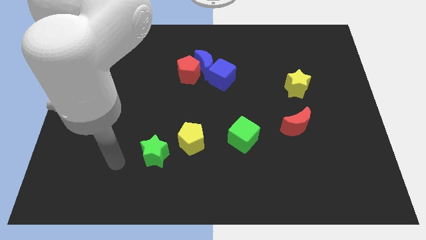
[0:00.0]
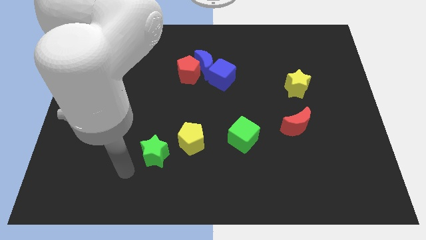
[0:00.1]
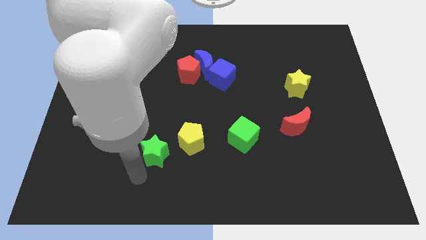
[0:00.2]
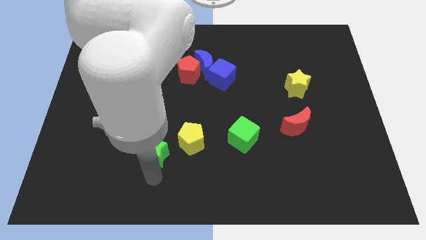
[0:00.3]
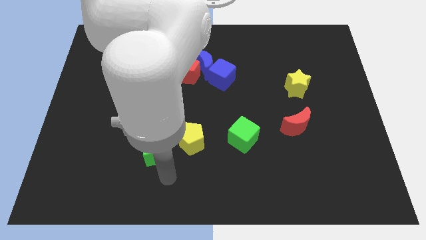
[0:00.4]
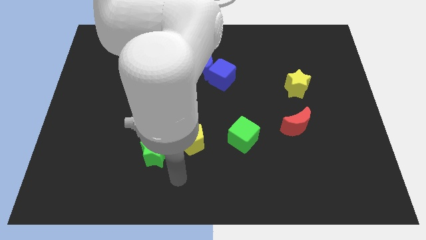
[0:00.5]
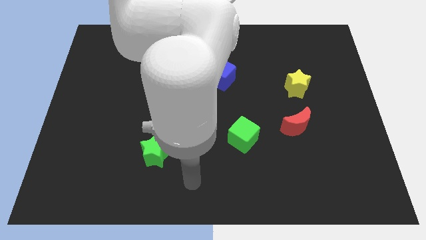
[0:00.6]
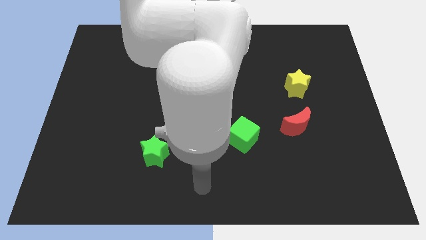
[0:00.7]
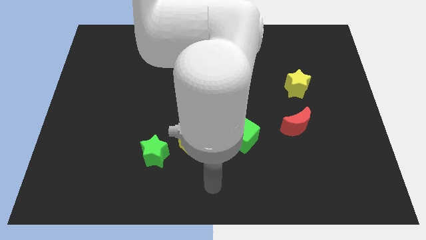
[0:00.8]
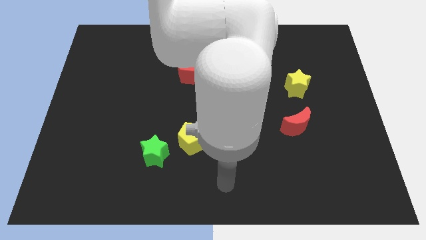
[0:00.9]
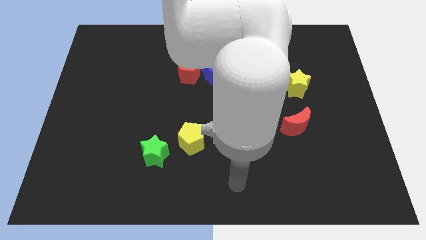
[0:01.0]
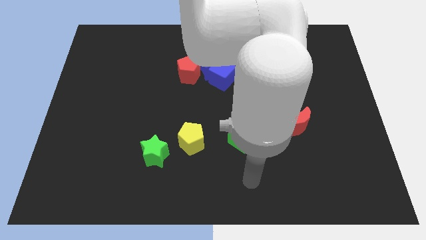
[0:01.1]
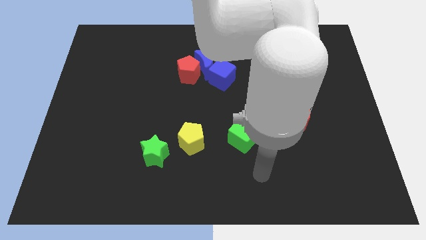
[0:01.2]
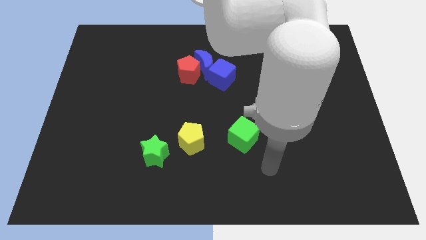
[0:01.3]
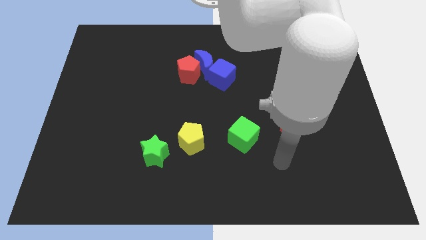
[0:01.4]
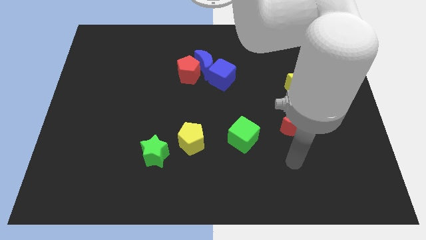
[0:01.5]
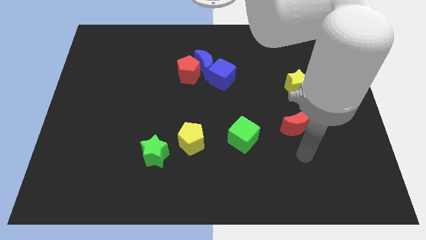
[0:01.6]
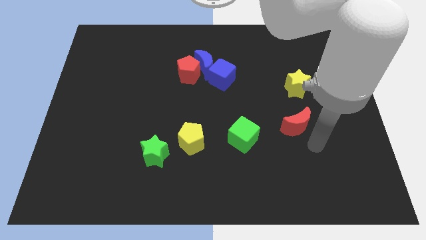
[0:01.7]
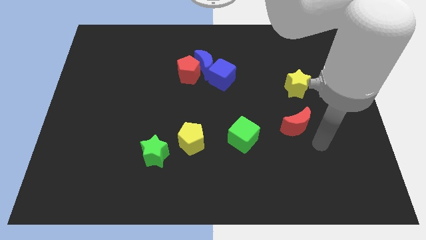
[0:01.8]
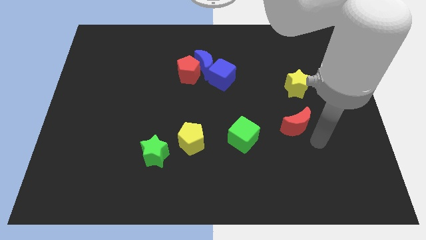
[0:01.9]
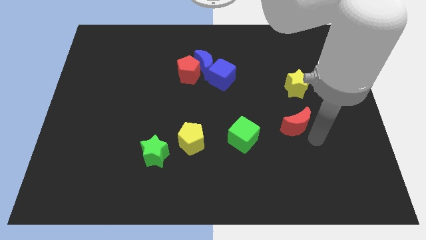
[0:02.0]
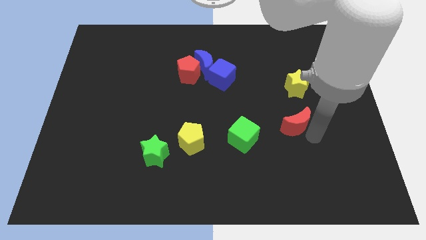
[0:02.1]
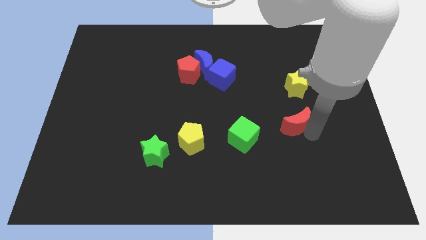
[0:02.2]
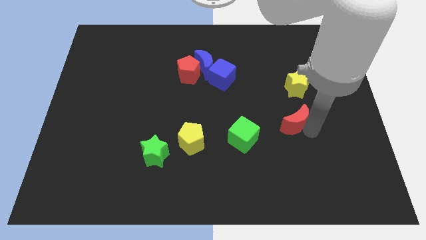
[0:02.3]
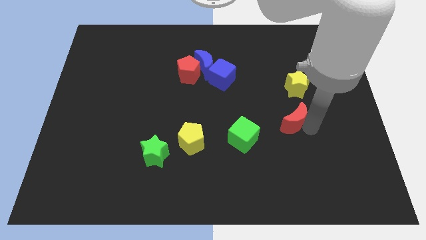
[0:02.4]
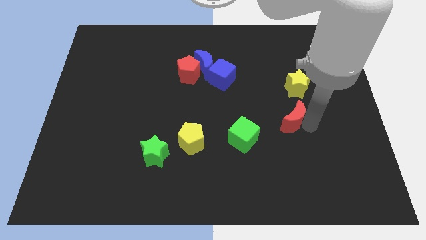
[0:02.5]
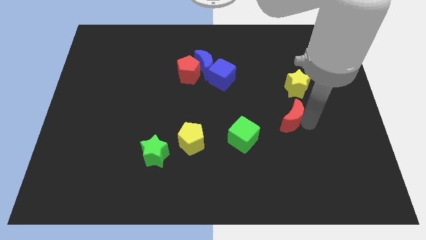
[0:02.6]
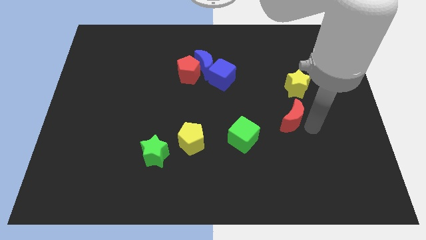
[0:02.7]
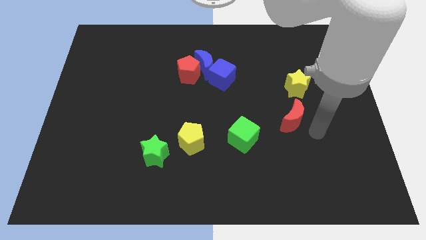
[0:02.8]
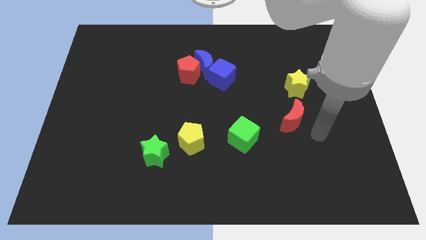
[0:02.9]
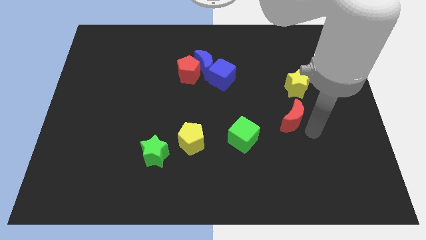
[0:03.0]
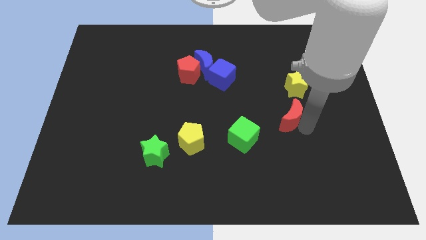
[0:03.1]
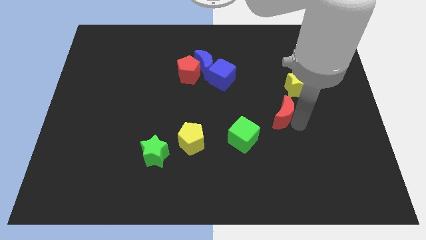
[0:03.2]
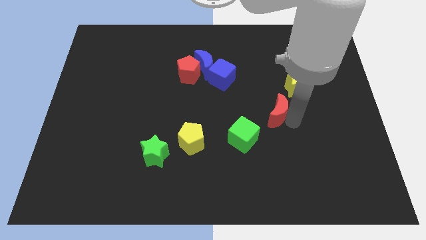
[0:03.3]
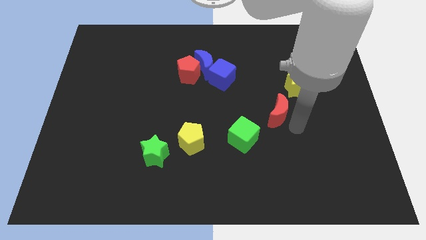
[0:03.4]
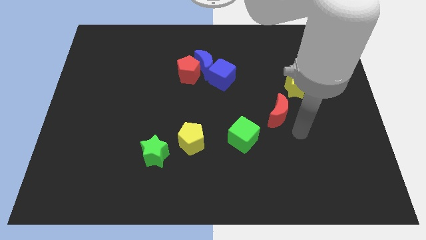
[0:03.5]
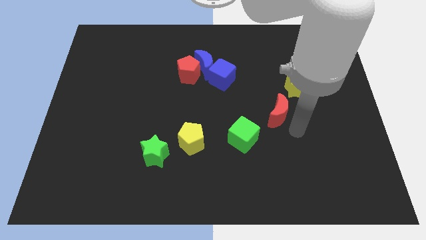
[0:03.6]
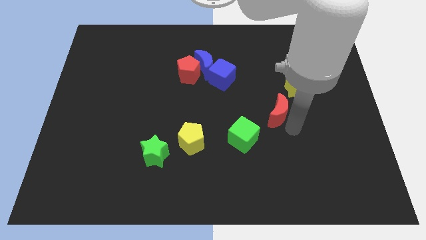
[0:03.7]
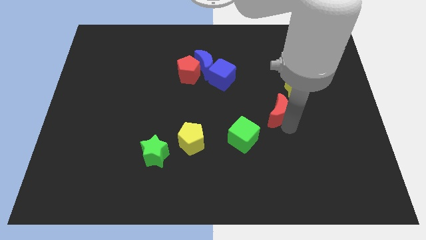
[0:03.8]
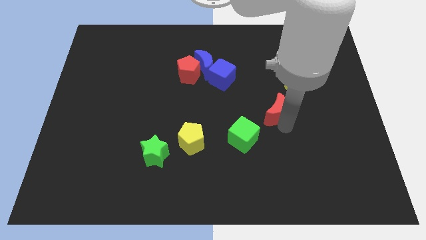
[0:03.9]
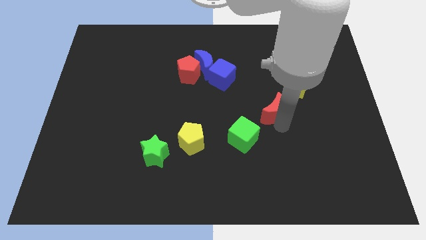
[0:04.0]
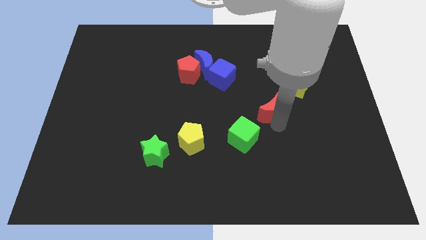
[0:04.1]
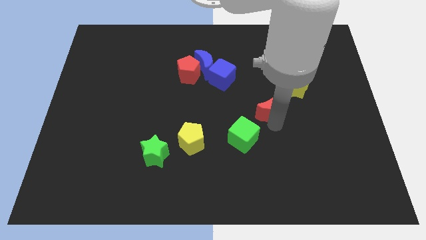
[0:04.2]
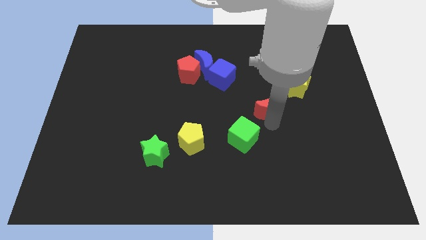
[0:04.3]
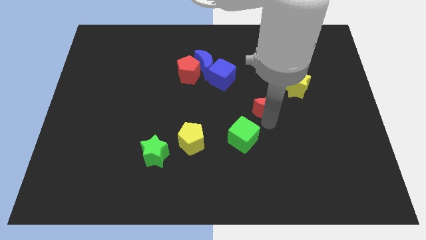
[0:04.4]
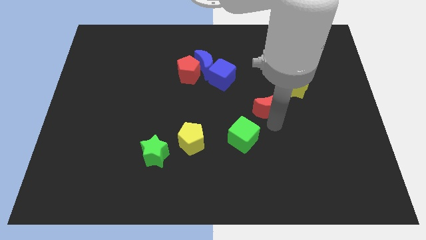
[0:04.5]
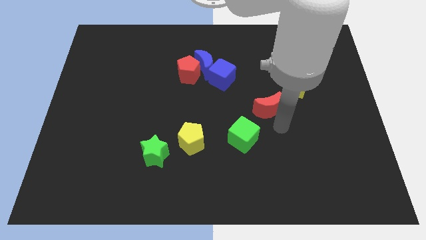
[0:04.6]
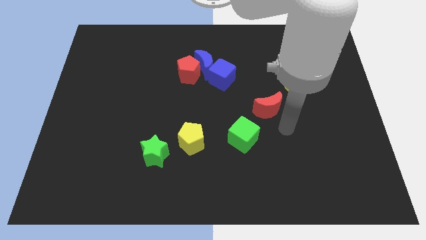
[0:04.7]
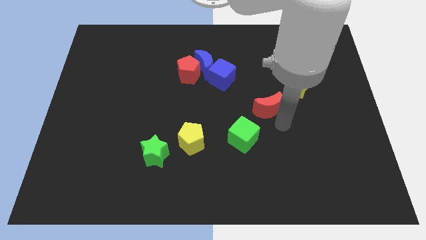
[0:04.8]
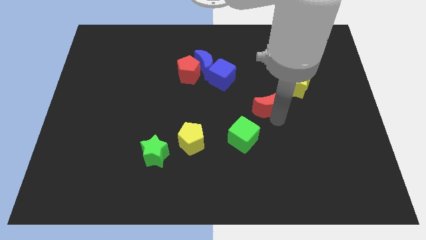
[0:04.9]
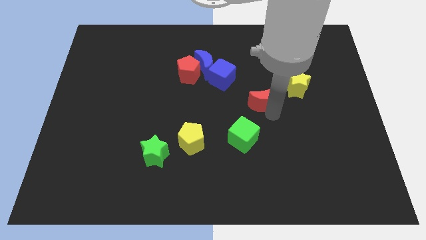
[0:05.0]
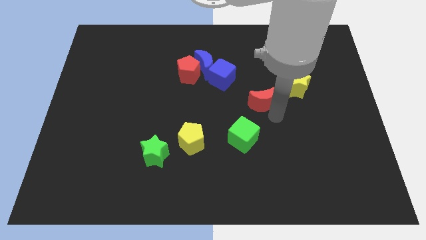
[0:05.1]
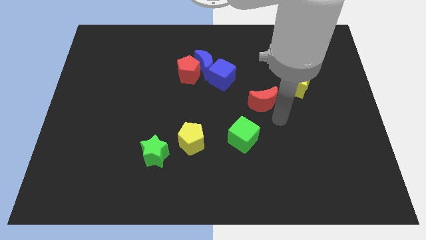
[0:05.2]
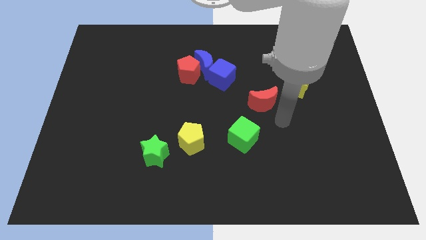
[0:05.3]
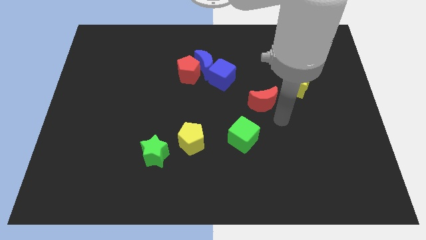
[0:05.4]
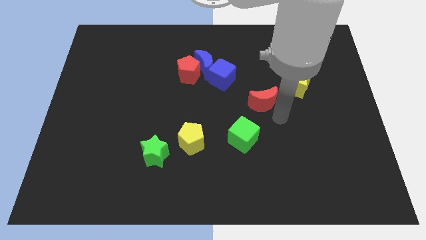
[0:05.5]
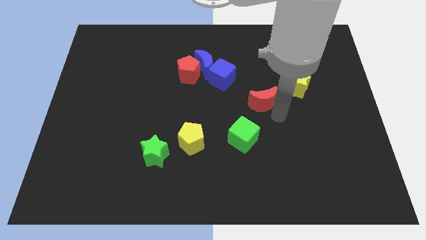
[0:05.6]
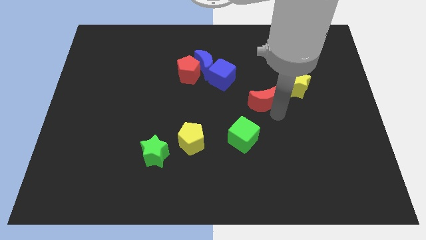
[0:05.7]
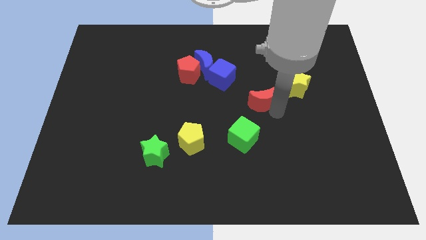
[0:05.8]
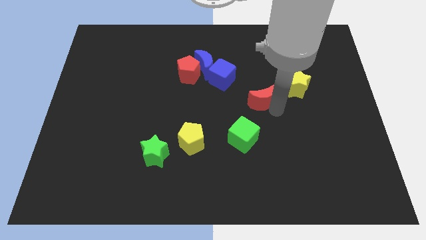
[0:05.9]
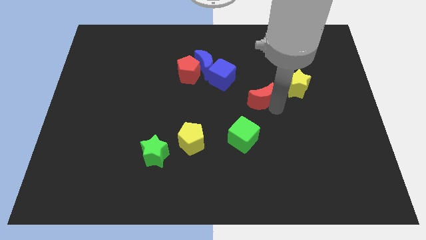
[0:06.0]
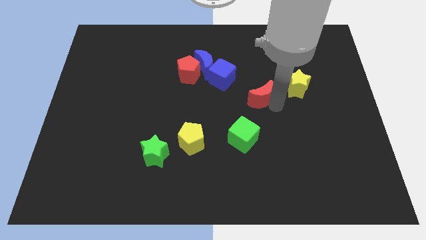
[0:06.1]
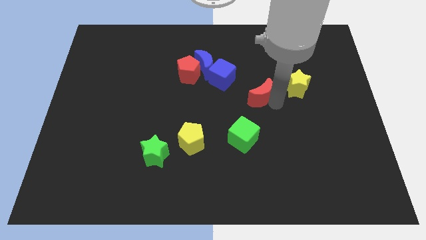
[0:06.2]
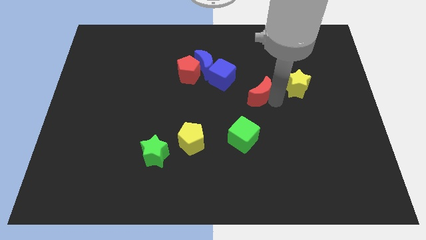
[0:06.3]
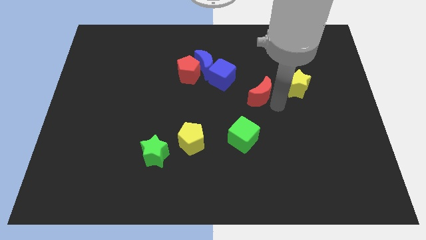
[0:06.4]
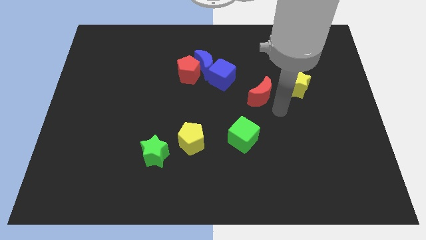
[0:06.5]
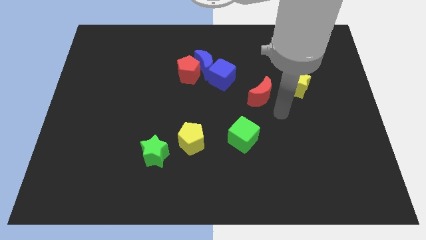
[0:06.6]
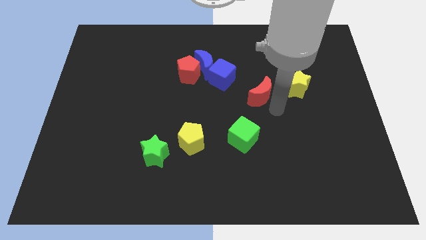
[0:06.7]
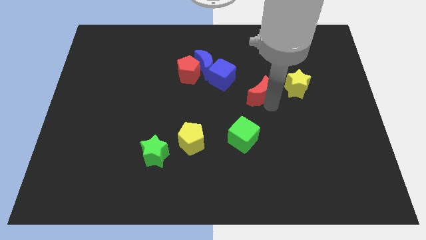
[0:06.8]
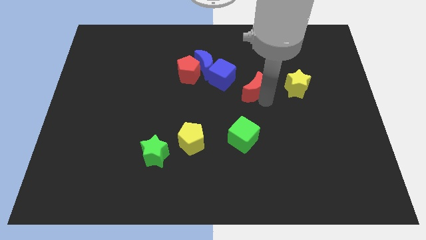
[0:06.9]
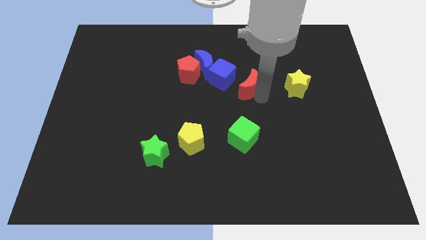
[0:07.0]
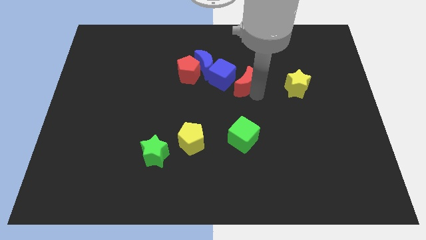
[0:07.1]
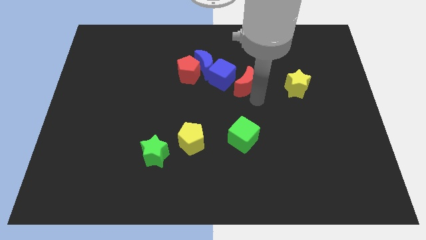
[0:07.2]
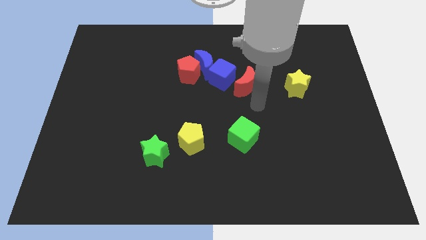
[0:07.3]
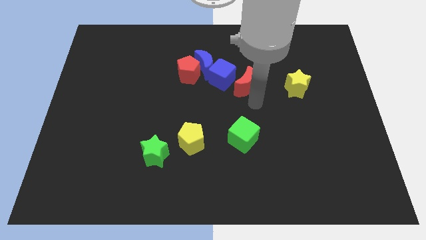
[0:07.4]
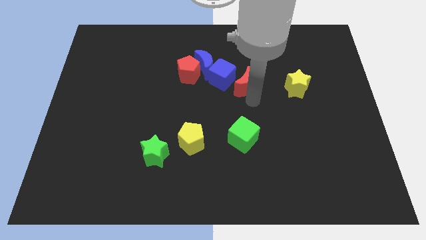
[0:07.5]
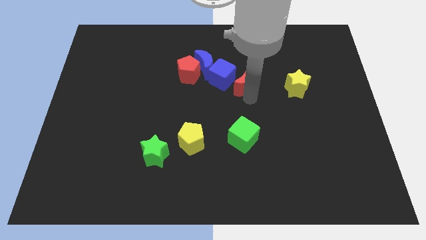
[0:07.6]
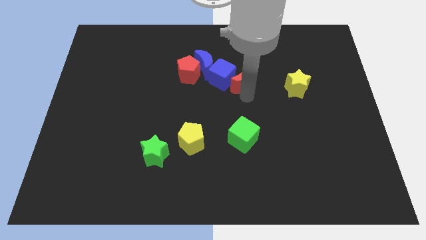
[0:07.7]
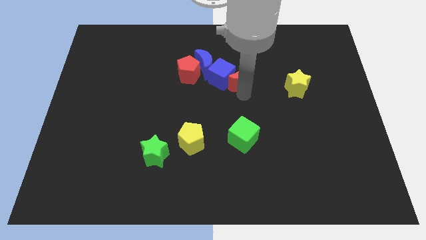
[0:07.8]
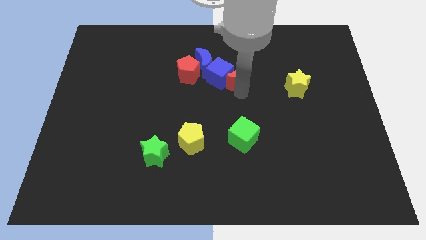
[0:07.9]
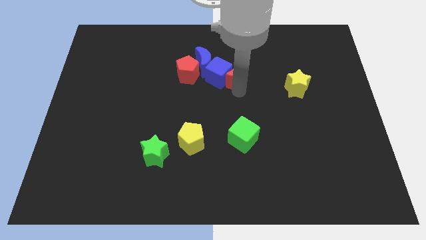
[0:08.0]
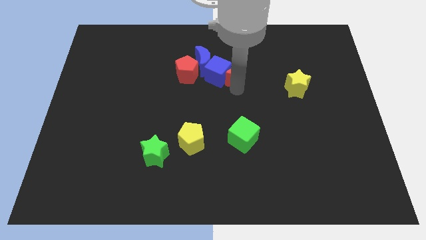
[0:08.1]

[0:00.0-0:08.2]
slide the red moon upwards and then to the left
